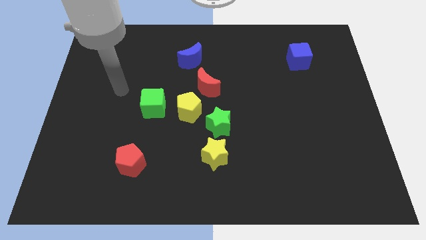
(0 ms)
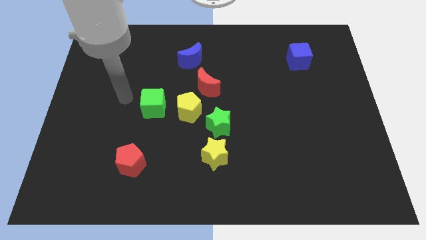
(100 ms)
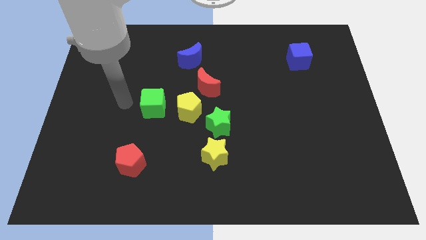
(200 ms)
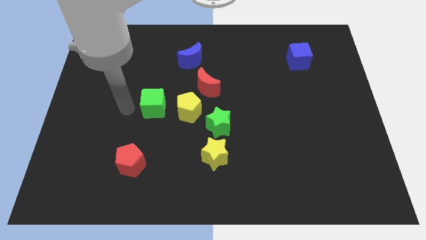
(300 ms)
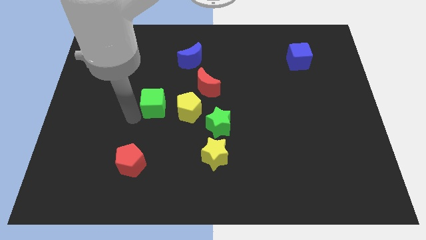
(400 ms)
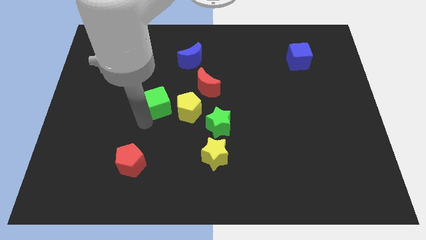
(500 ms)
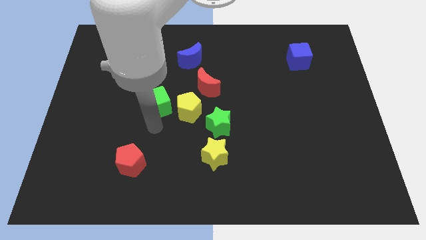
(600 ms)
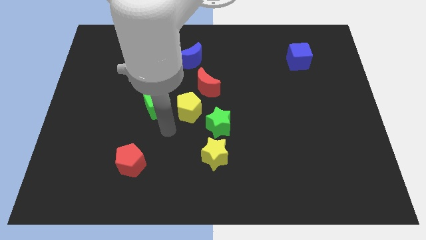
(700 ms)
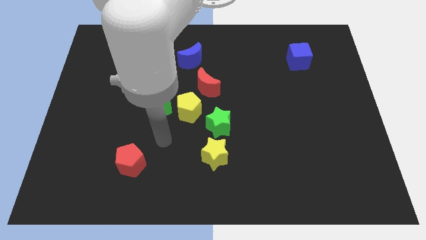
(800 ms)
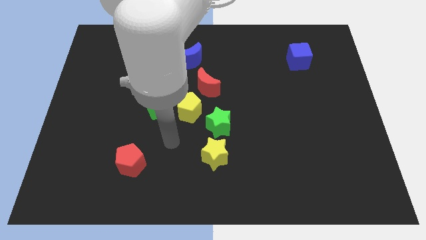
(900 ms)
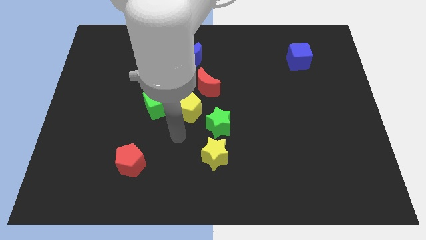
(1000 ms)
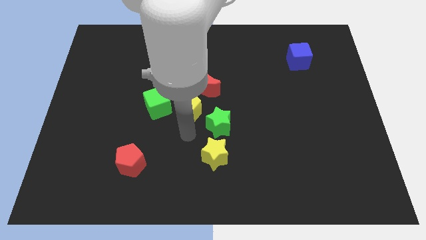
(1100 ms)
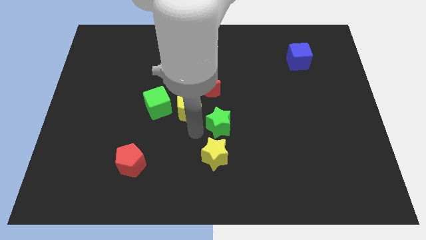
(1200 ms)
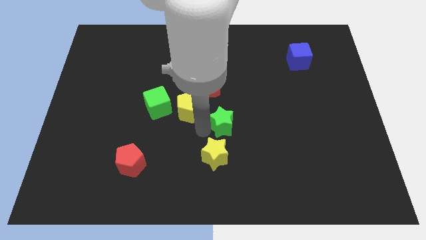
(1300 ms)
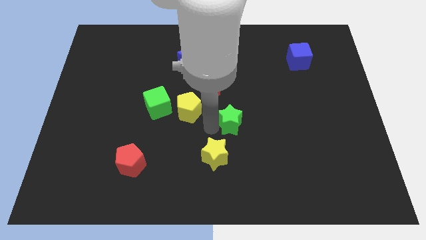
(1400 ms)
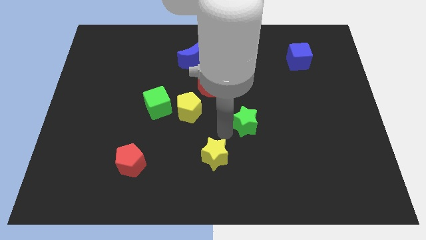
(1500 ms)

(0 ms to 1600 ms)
move the yellow star away from the green star

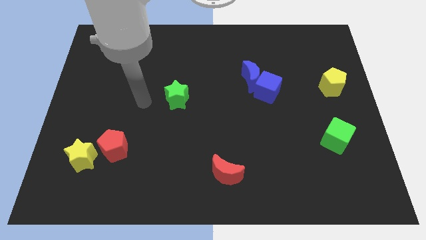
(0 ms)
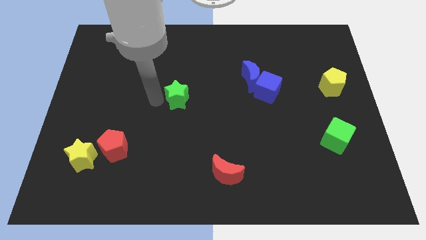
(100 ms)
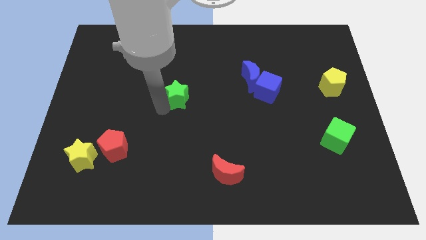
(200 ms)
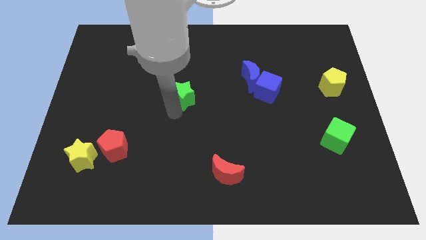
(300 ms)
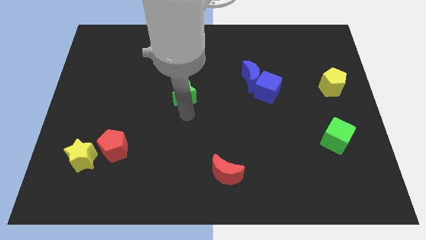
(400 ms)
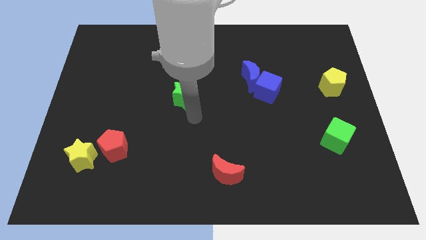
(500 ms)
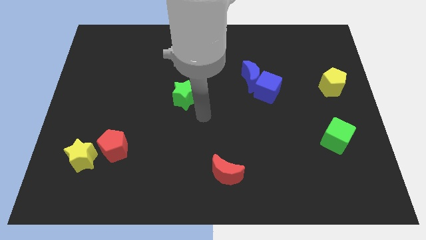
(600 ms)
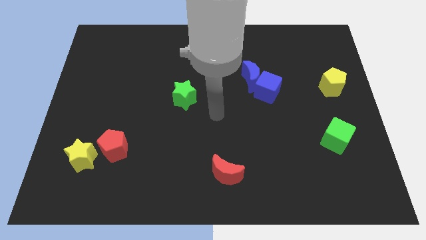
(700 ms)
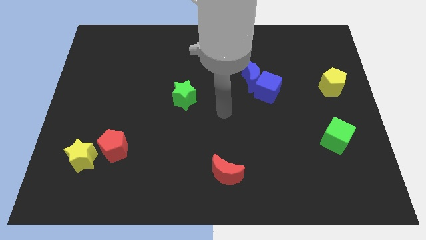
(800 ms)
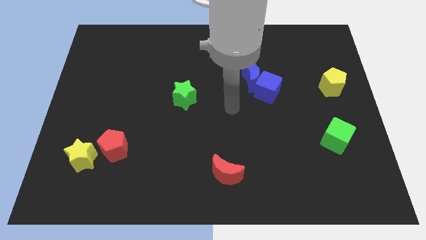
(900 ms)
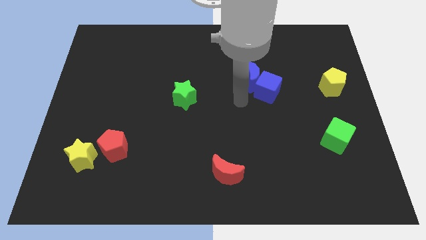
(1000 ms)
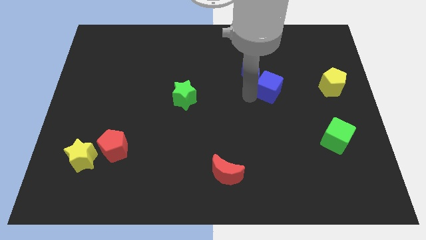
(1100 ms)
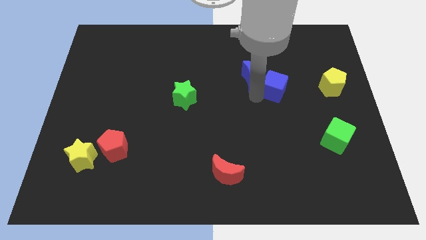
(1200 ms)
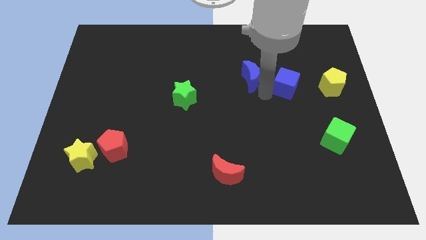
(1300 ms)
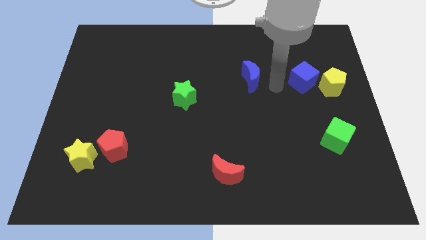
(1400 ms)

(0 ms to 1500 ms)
pull the blue moon apart from the blue cube

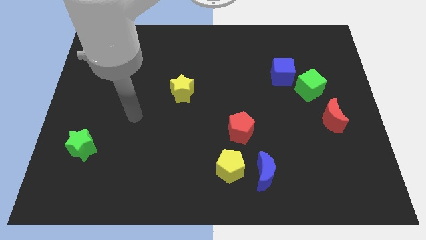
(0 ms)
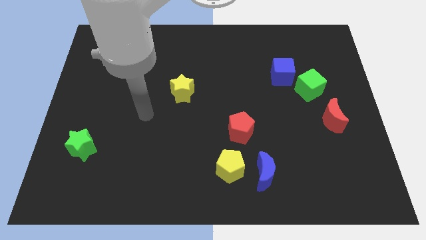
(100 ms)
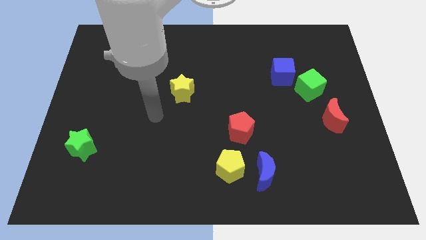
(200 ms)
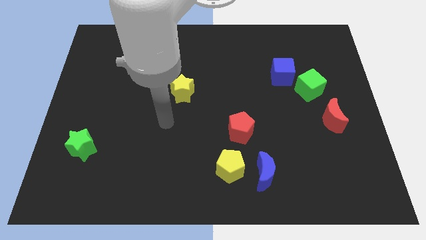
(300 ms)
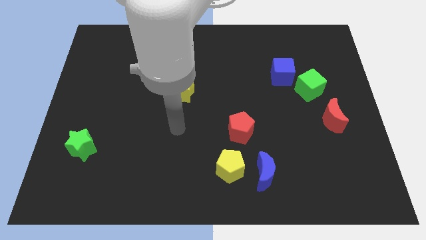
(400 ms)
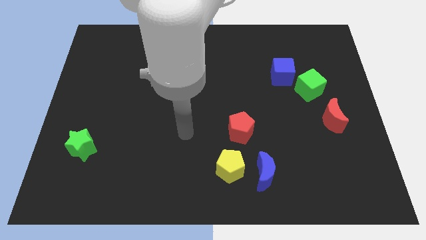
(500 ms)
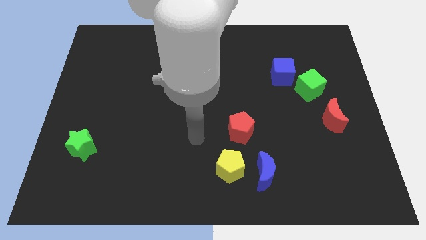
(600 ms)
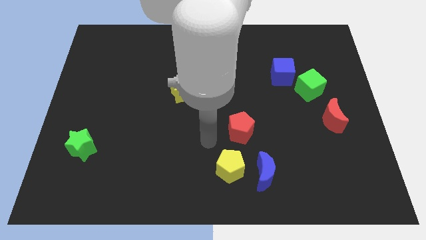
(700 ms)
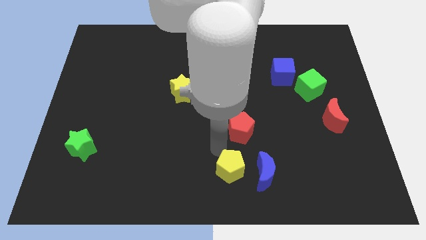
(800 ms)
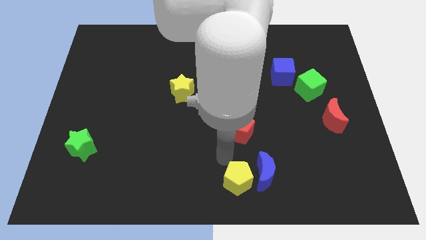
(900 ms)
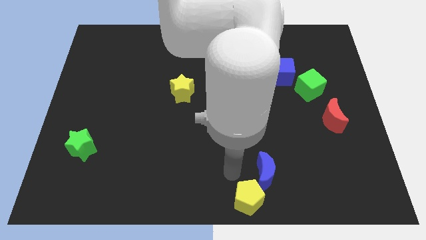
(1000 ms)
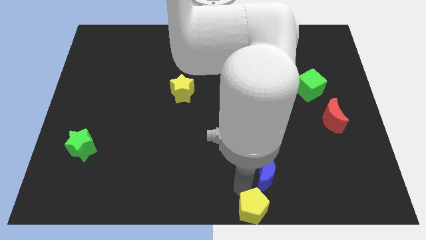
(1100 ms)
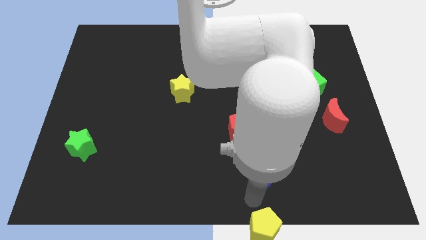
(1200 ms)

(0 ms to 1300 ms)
pull the blue moon apart from the yellow pentagon

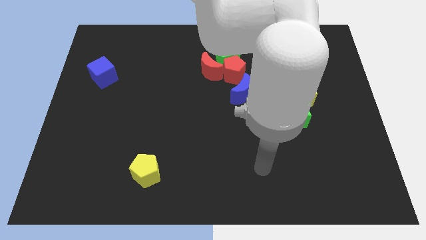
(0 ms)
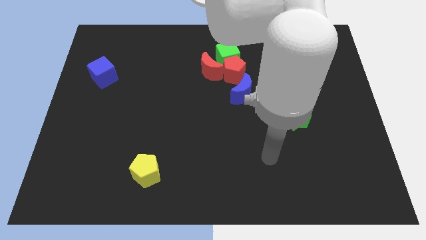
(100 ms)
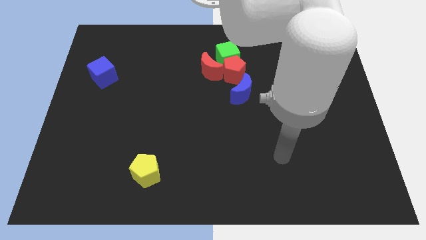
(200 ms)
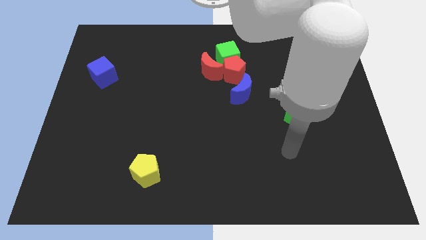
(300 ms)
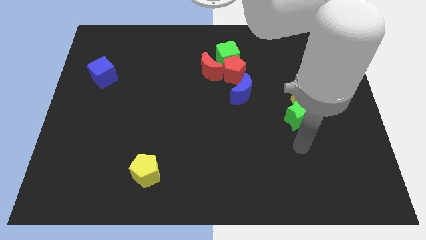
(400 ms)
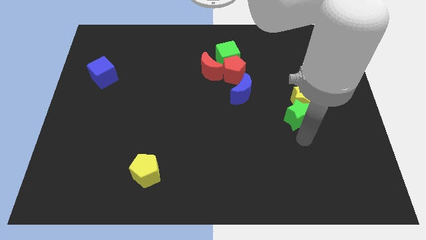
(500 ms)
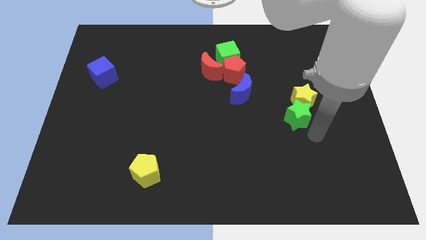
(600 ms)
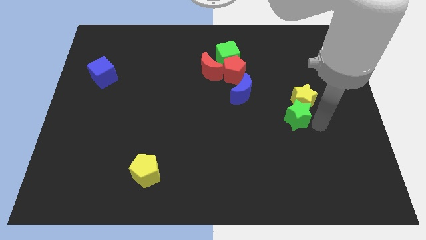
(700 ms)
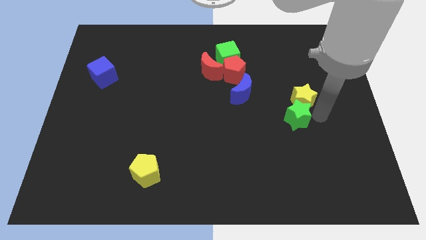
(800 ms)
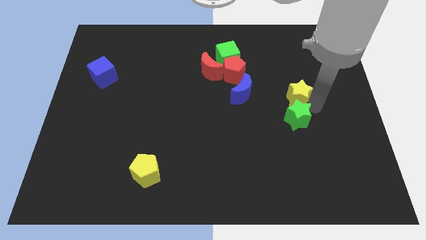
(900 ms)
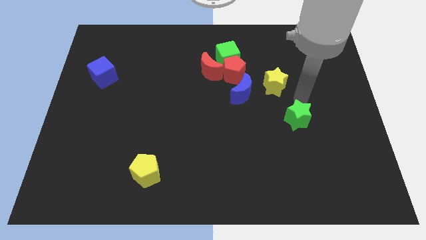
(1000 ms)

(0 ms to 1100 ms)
move the green star away from the yellow star

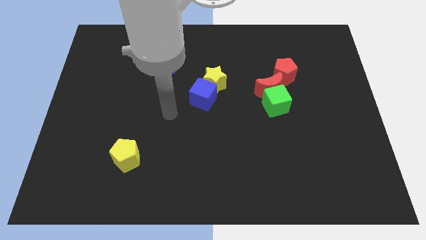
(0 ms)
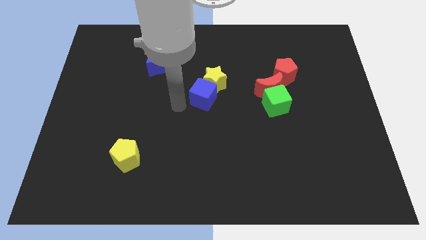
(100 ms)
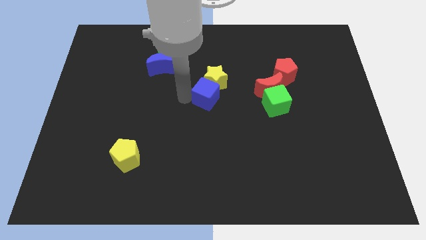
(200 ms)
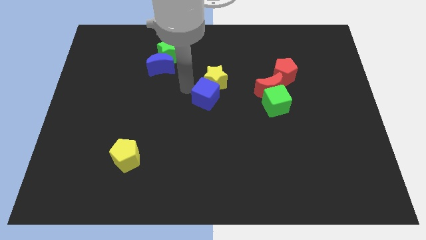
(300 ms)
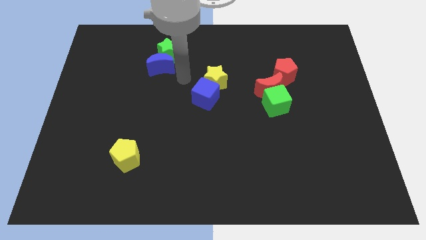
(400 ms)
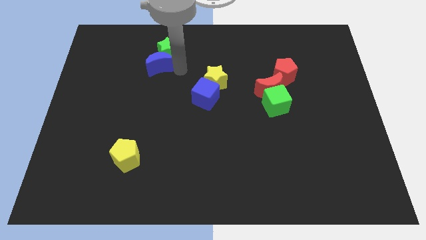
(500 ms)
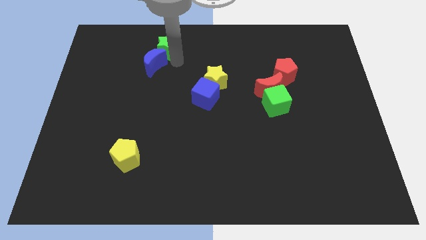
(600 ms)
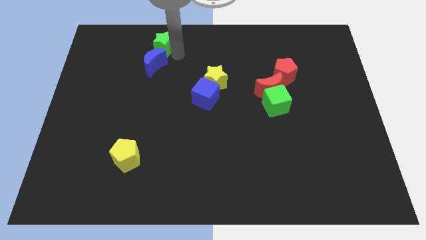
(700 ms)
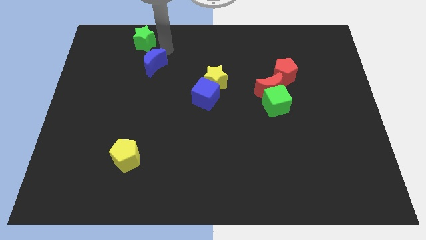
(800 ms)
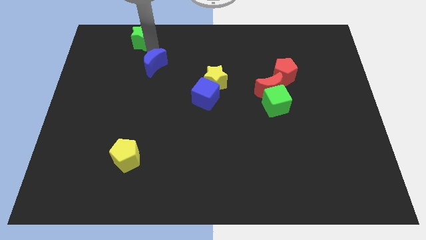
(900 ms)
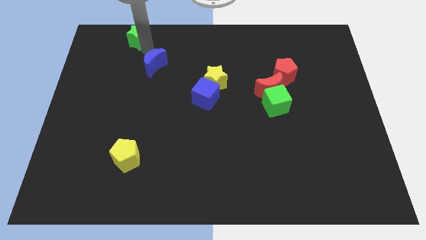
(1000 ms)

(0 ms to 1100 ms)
separate the blue moon from the green star

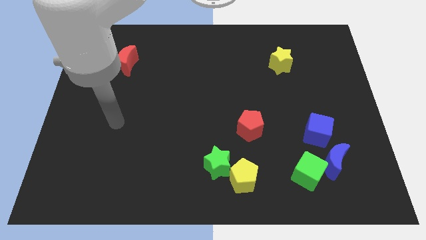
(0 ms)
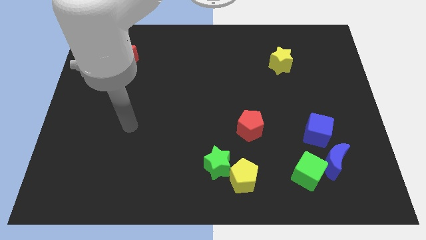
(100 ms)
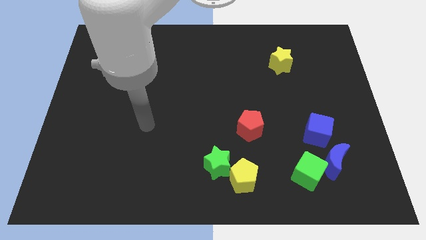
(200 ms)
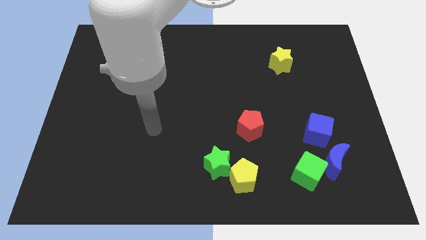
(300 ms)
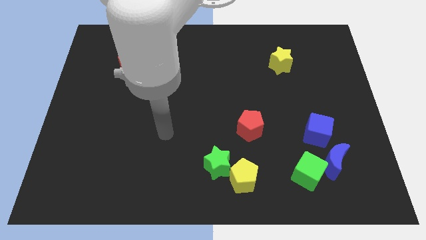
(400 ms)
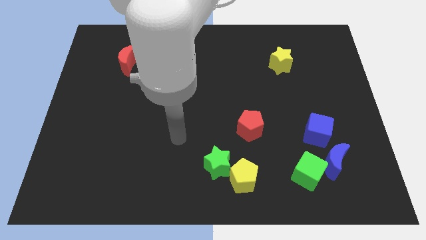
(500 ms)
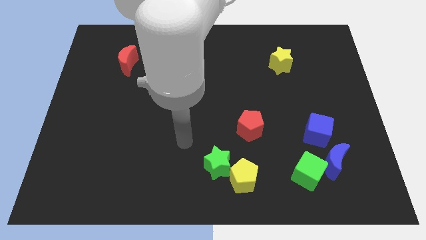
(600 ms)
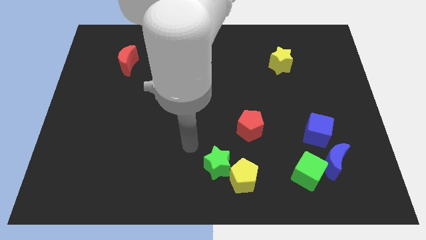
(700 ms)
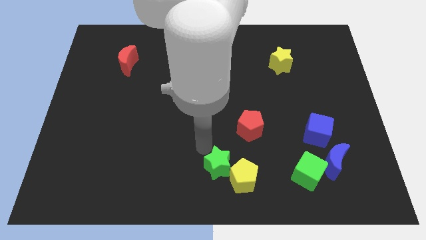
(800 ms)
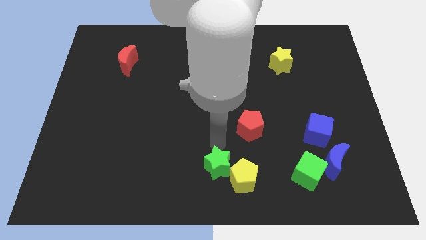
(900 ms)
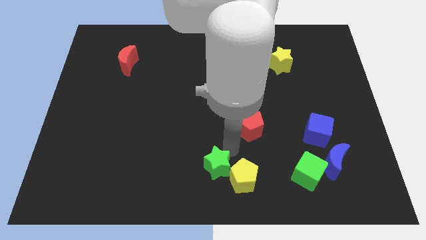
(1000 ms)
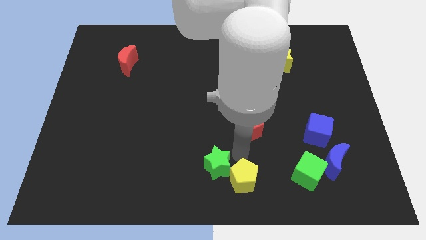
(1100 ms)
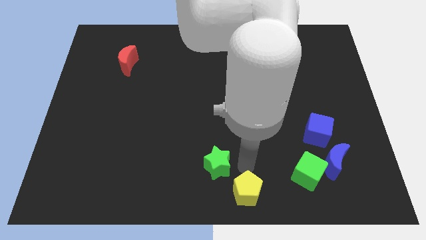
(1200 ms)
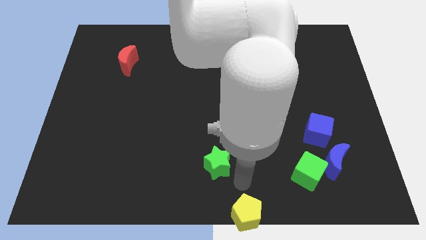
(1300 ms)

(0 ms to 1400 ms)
pull the green star apart from the yellow pentagon

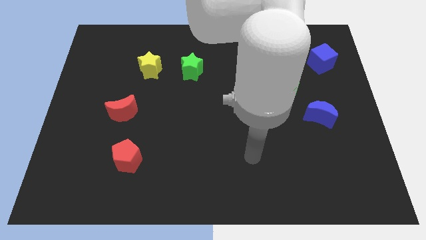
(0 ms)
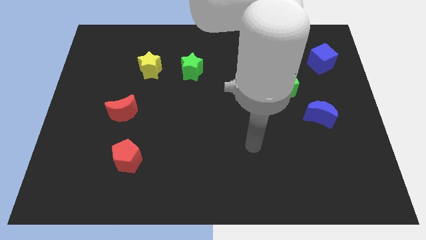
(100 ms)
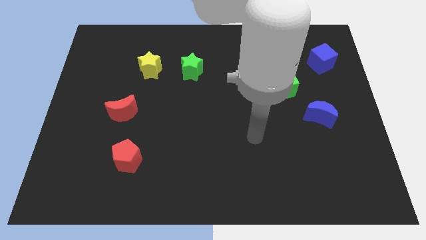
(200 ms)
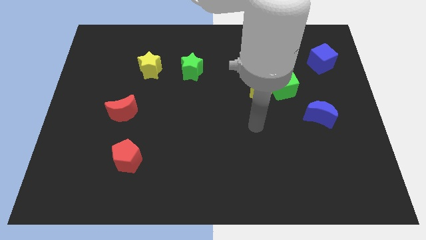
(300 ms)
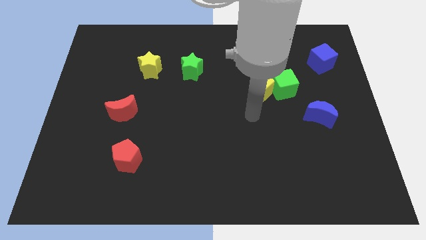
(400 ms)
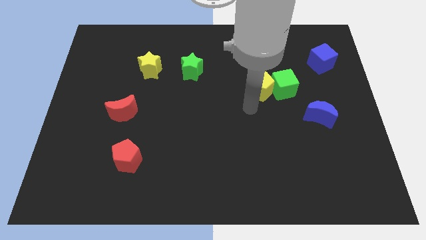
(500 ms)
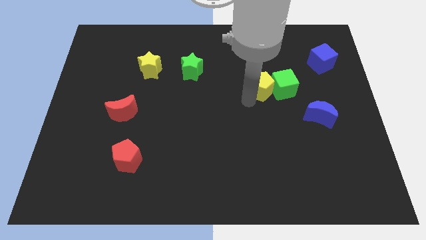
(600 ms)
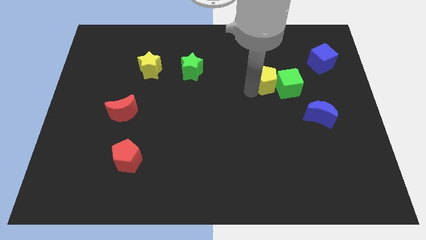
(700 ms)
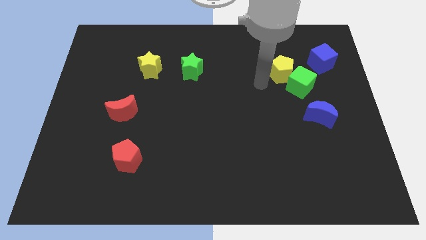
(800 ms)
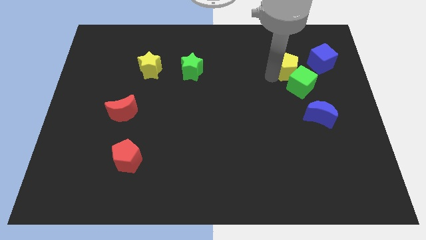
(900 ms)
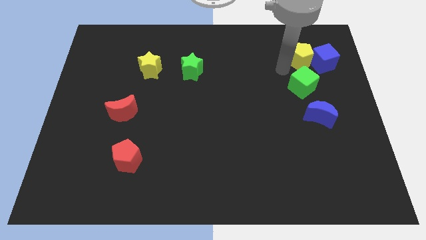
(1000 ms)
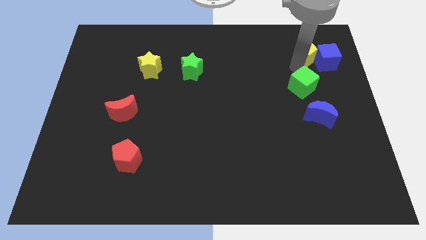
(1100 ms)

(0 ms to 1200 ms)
separate the green cube from the yellow pentagon

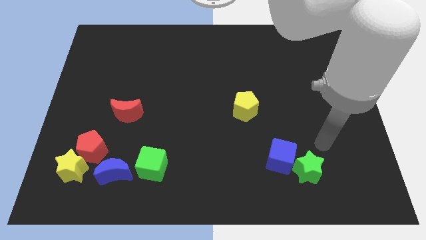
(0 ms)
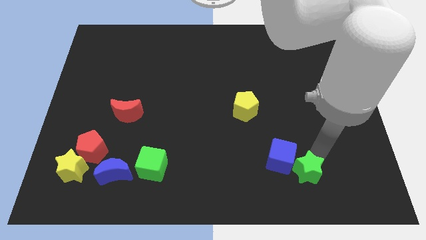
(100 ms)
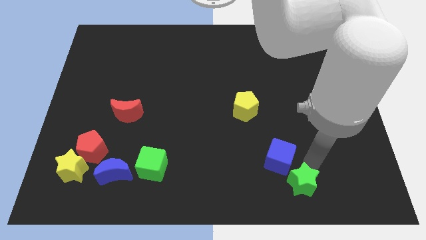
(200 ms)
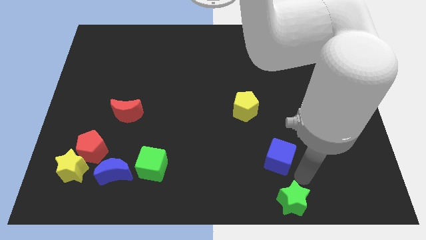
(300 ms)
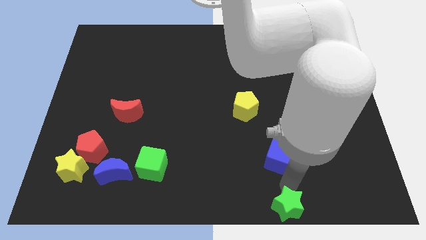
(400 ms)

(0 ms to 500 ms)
move the blue cube away from the green star
